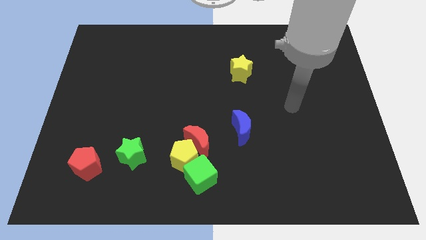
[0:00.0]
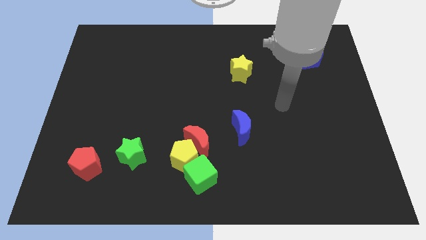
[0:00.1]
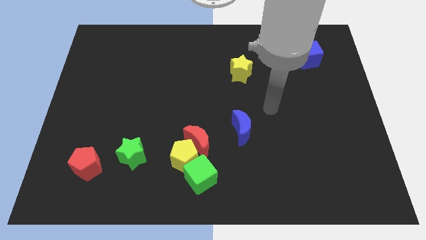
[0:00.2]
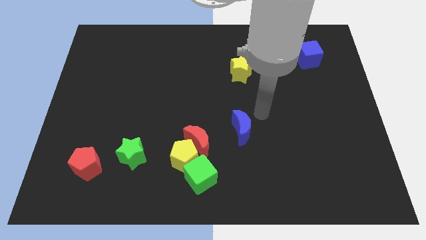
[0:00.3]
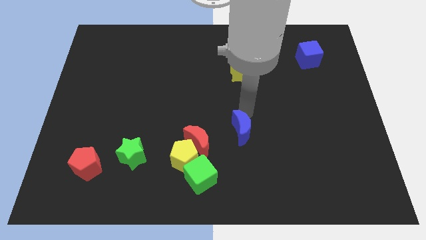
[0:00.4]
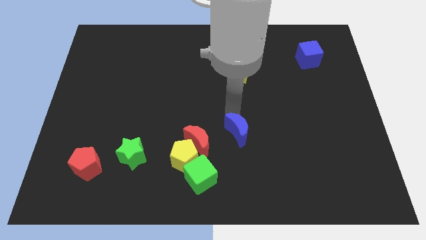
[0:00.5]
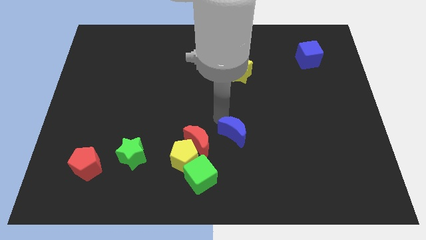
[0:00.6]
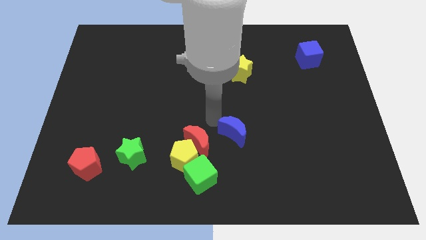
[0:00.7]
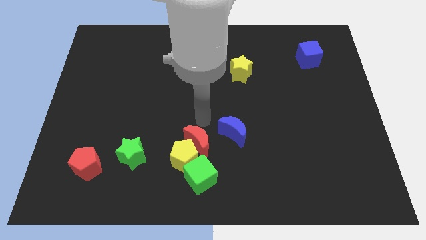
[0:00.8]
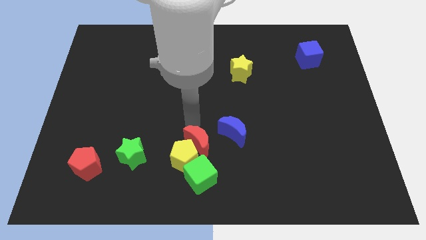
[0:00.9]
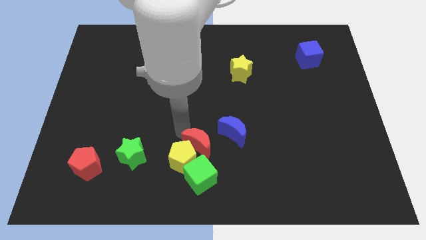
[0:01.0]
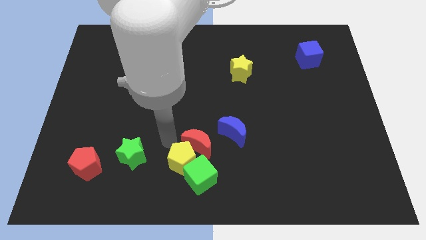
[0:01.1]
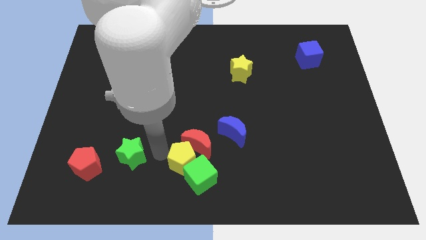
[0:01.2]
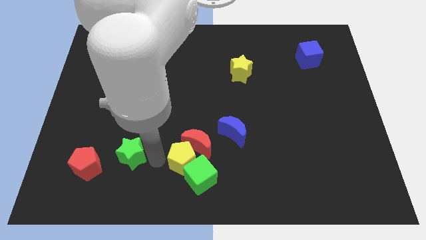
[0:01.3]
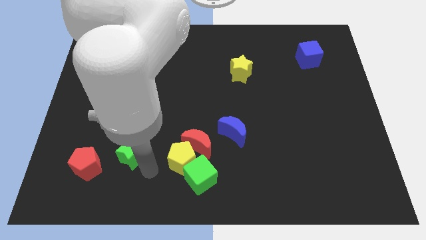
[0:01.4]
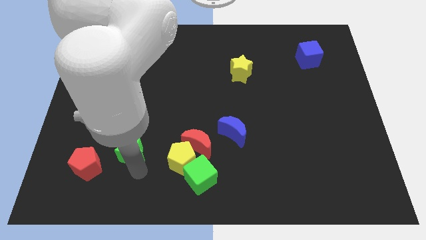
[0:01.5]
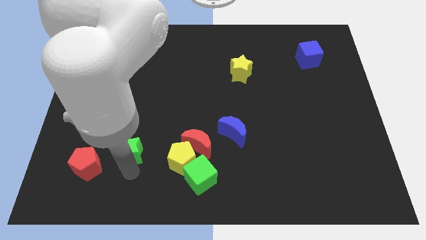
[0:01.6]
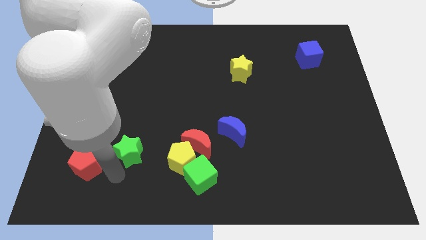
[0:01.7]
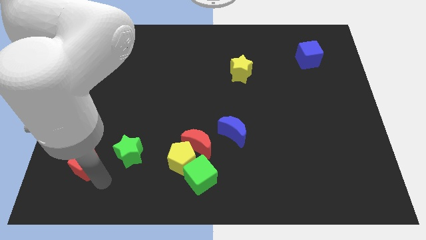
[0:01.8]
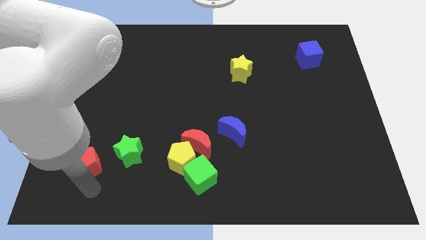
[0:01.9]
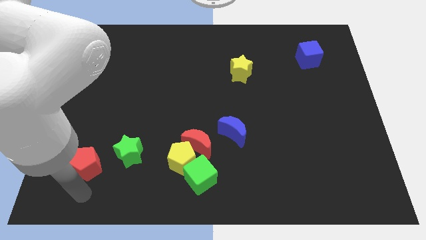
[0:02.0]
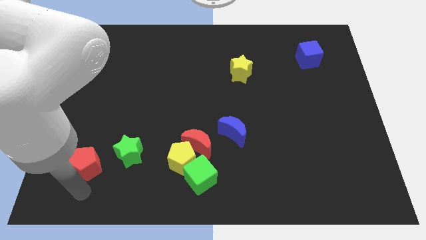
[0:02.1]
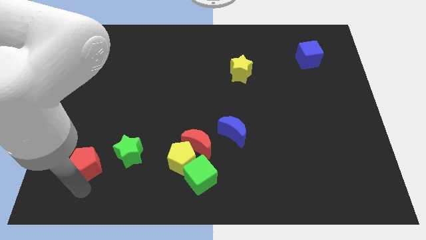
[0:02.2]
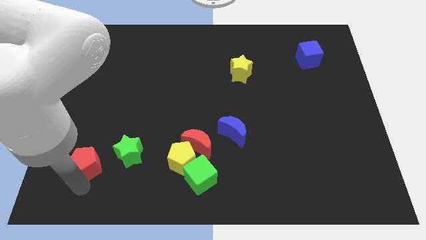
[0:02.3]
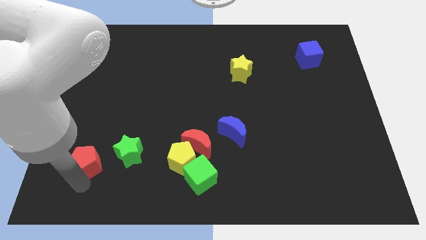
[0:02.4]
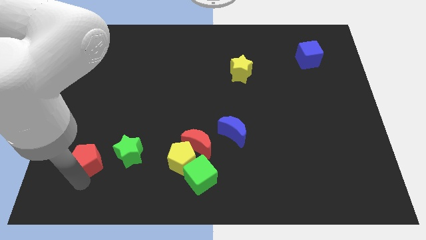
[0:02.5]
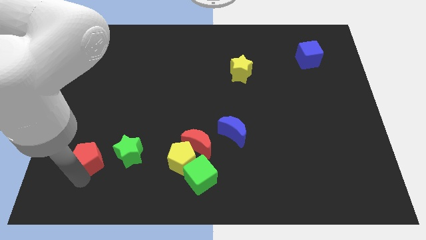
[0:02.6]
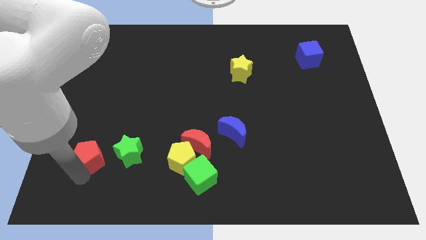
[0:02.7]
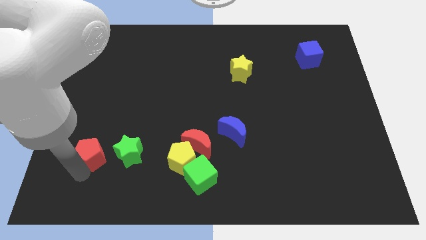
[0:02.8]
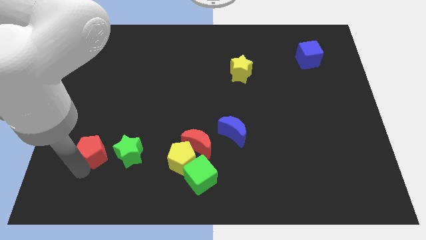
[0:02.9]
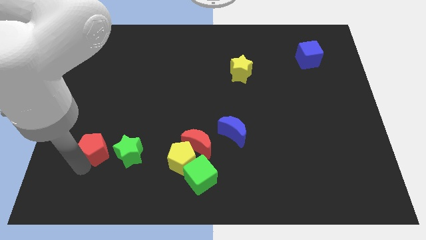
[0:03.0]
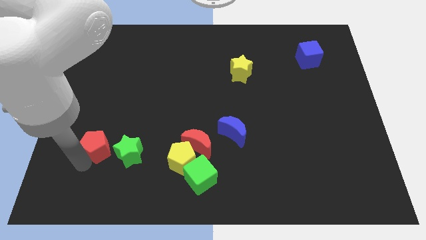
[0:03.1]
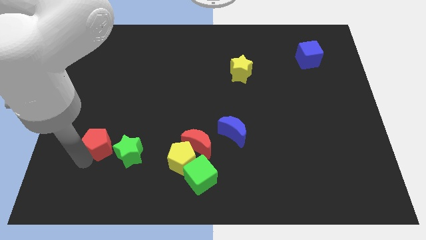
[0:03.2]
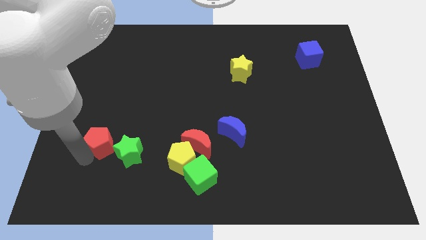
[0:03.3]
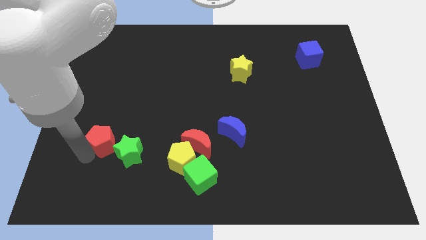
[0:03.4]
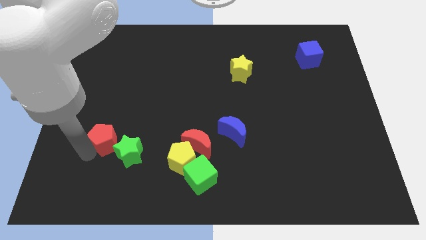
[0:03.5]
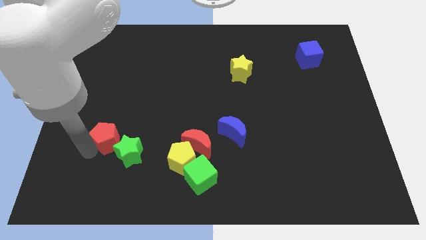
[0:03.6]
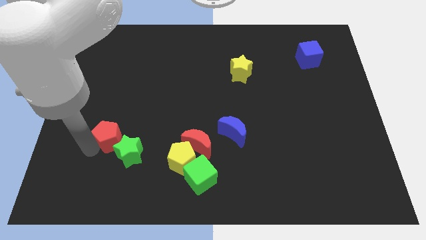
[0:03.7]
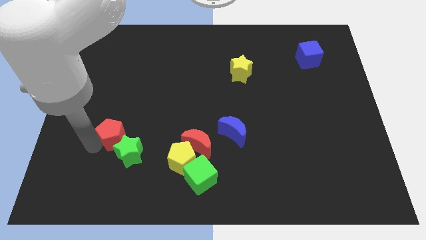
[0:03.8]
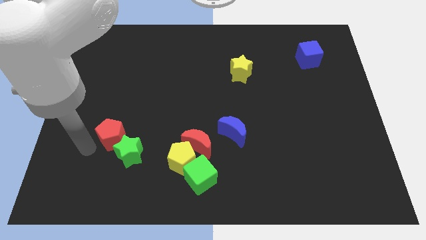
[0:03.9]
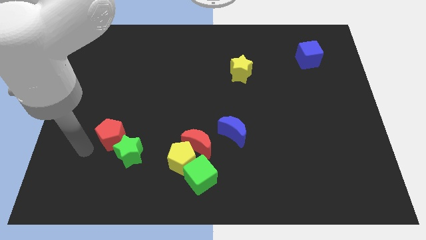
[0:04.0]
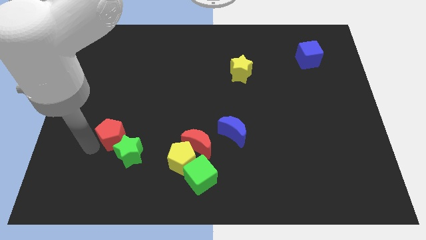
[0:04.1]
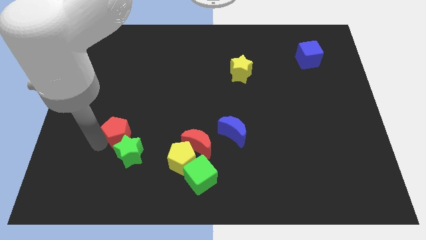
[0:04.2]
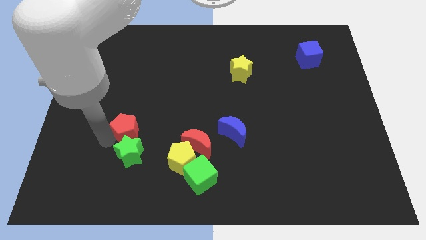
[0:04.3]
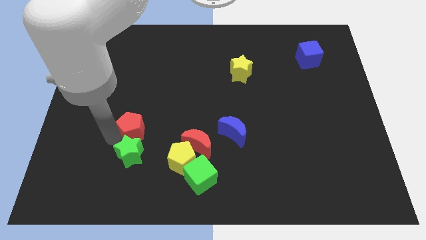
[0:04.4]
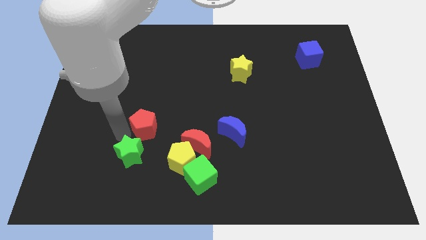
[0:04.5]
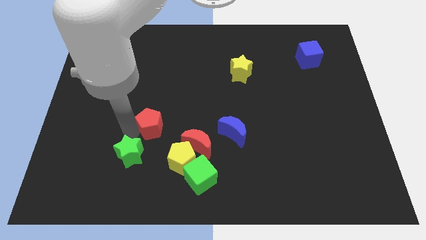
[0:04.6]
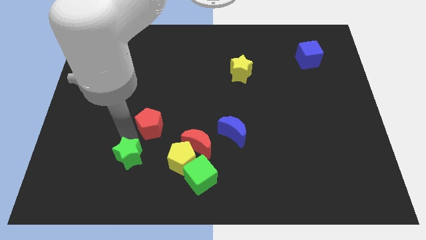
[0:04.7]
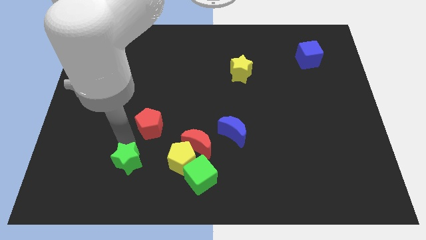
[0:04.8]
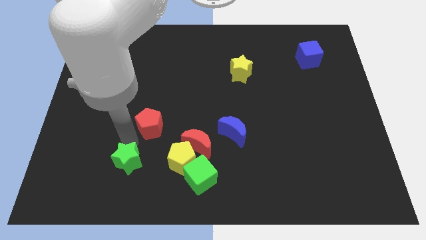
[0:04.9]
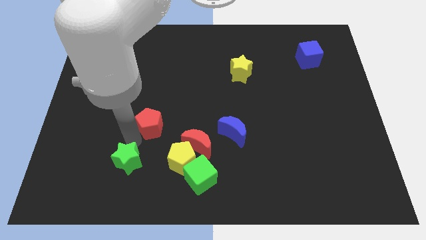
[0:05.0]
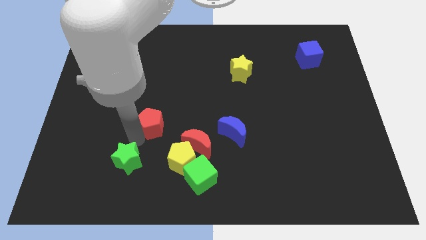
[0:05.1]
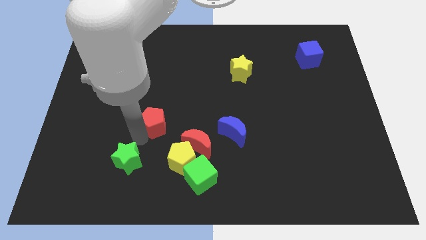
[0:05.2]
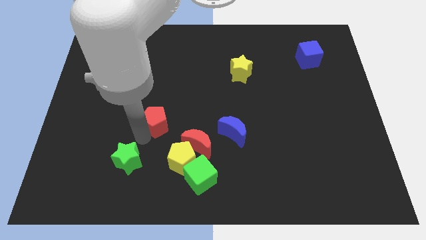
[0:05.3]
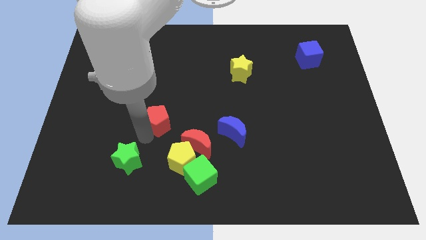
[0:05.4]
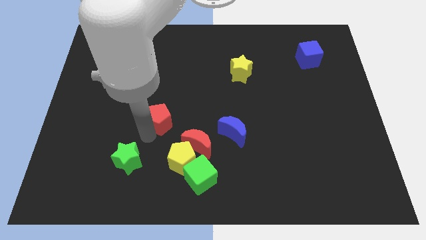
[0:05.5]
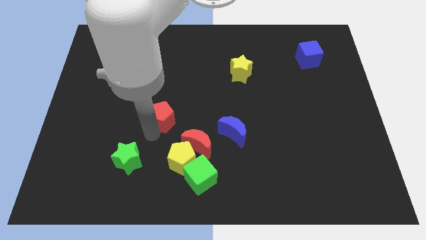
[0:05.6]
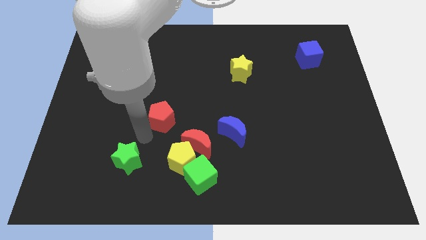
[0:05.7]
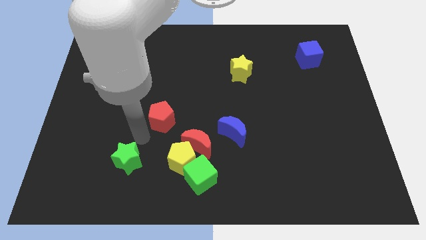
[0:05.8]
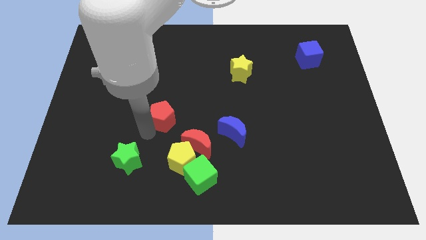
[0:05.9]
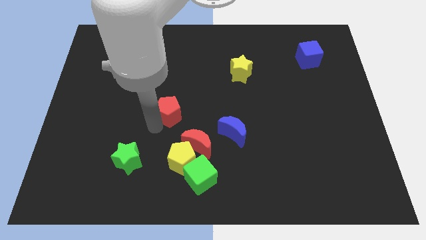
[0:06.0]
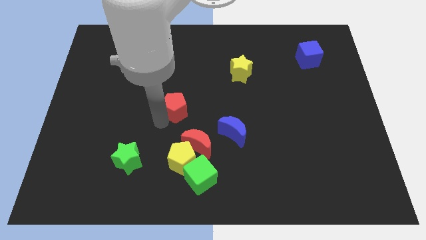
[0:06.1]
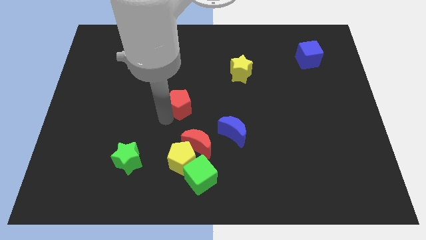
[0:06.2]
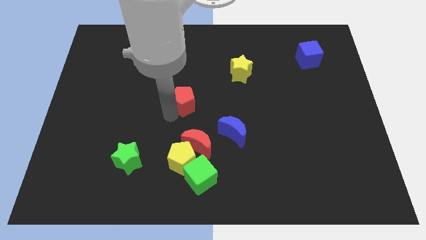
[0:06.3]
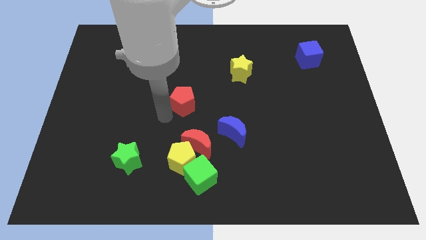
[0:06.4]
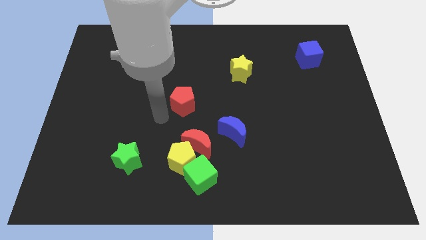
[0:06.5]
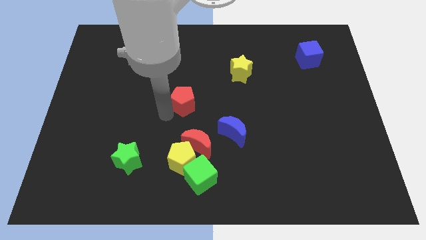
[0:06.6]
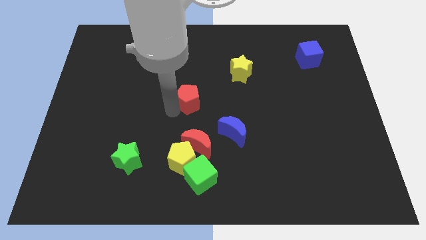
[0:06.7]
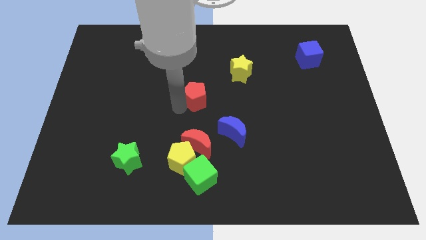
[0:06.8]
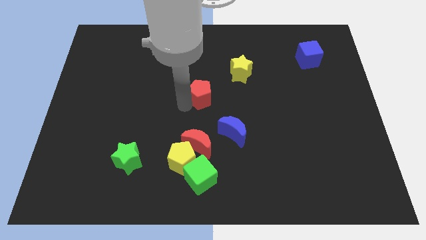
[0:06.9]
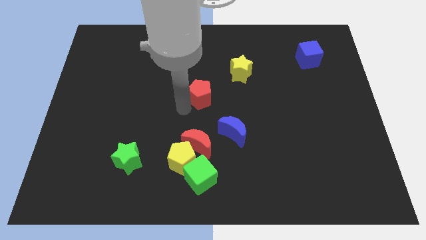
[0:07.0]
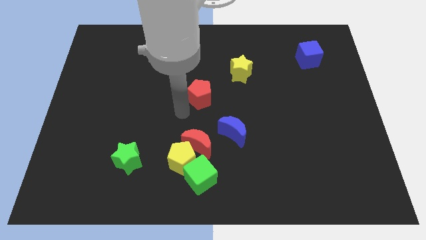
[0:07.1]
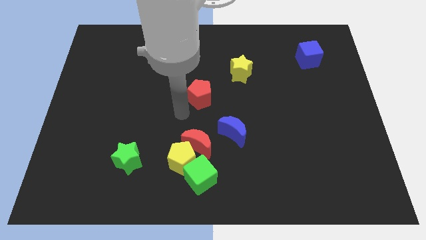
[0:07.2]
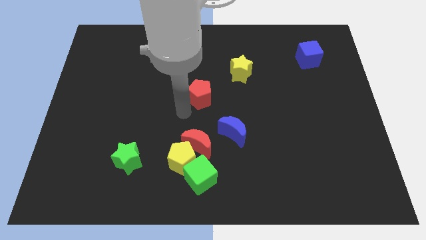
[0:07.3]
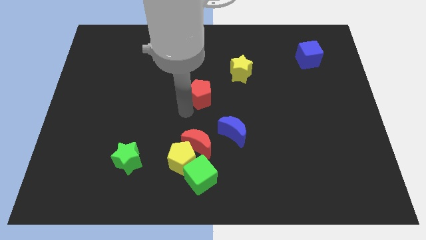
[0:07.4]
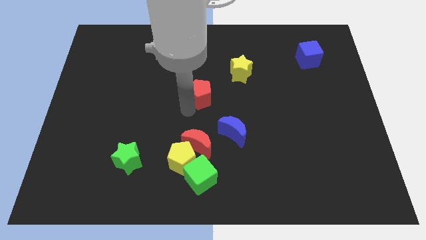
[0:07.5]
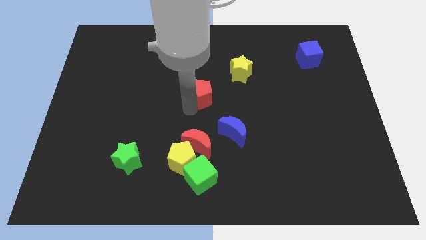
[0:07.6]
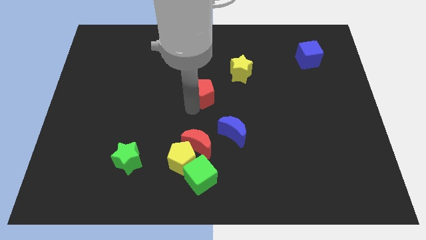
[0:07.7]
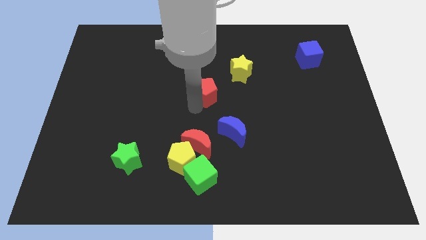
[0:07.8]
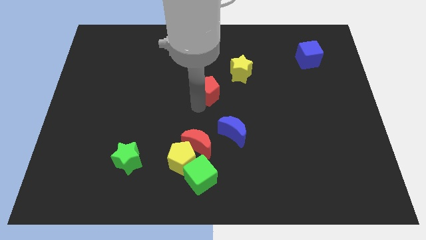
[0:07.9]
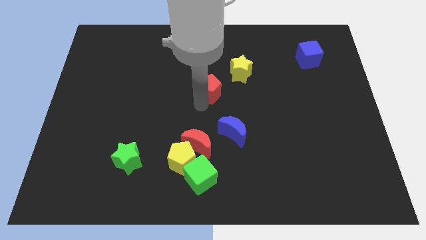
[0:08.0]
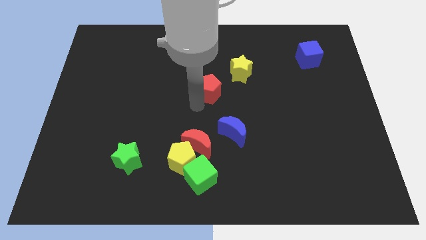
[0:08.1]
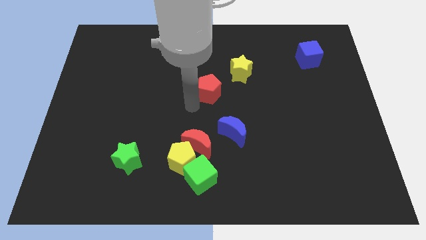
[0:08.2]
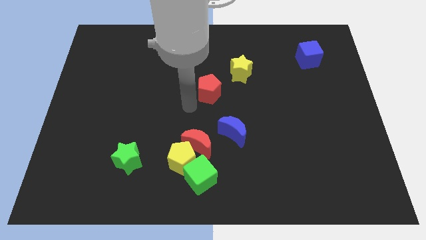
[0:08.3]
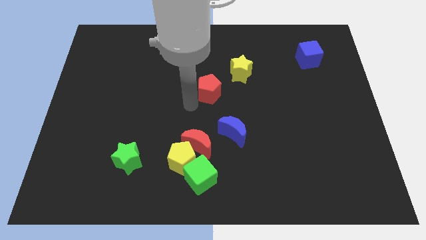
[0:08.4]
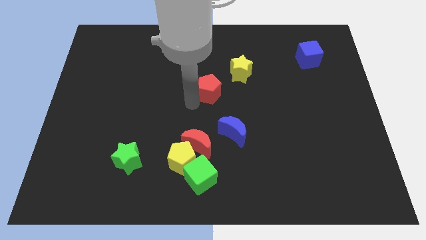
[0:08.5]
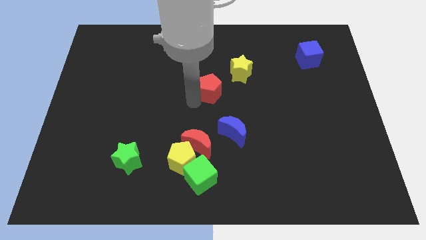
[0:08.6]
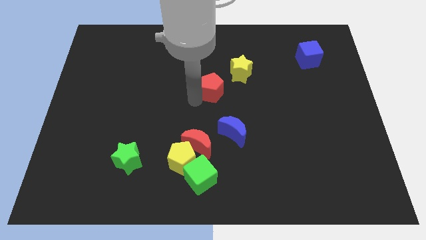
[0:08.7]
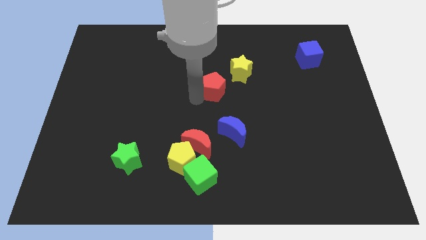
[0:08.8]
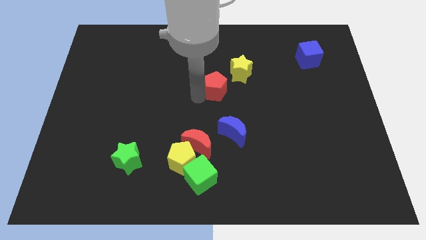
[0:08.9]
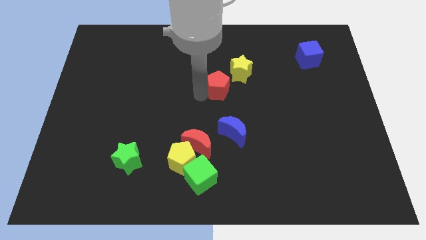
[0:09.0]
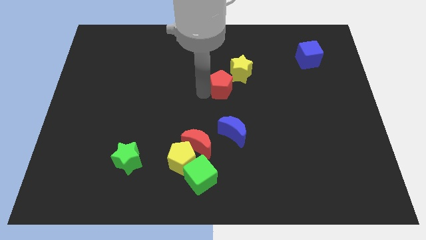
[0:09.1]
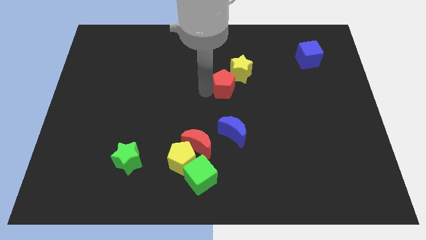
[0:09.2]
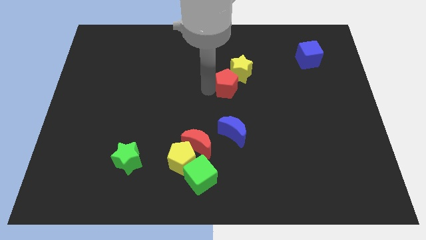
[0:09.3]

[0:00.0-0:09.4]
move the red pentagon towards the yellow star
